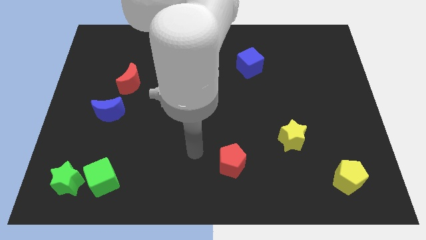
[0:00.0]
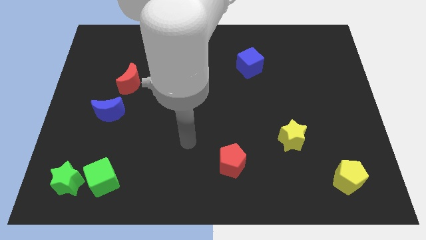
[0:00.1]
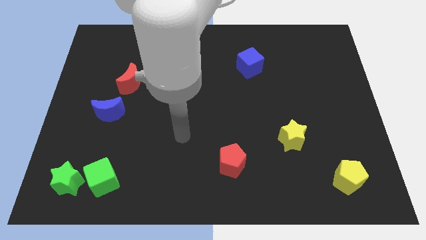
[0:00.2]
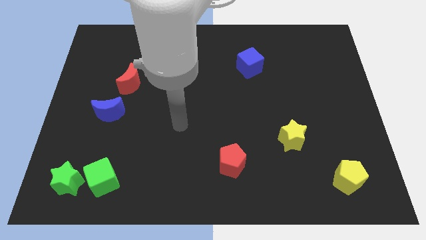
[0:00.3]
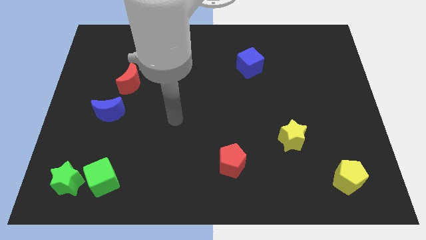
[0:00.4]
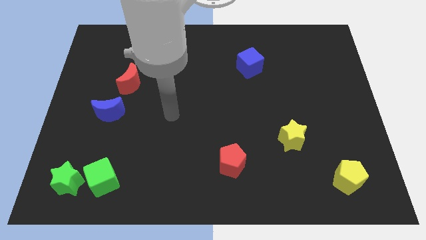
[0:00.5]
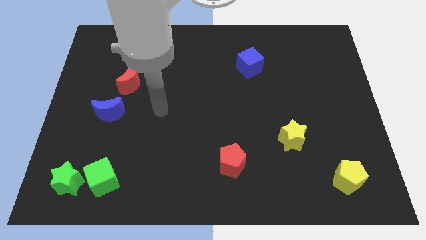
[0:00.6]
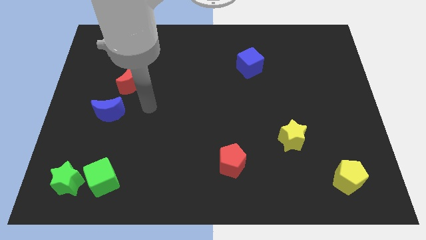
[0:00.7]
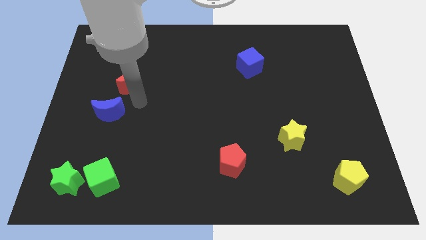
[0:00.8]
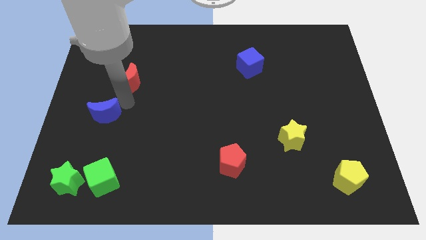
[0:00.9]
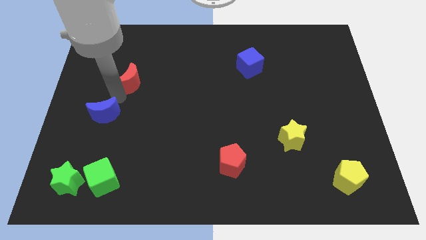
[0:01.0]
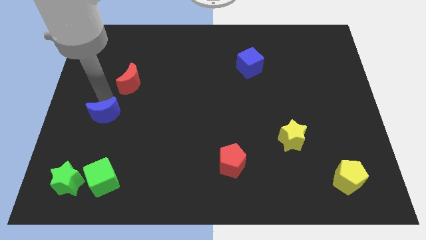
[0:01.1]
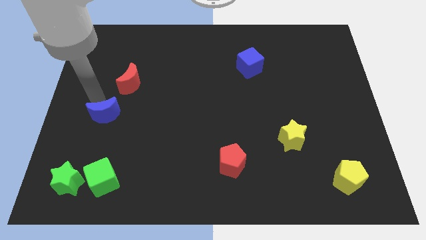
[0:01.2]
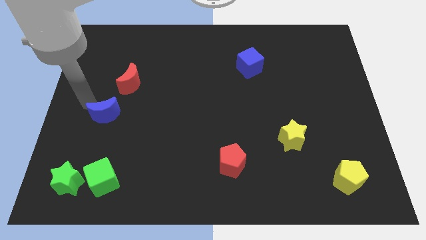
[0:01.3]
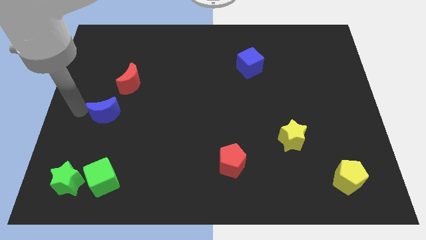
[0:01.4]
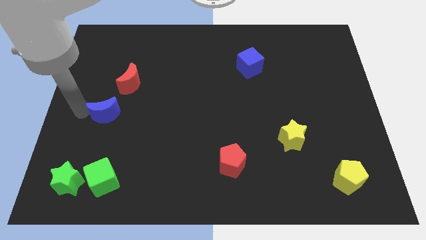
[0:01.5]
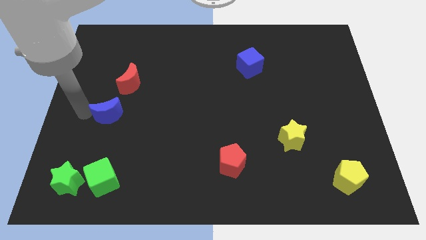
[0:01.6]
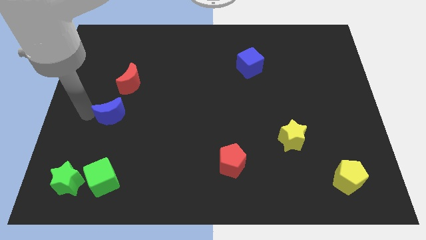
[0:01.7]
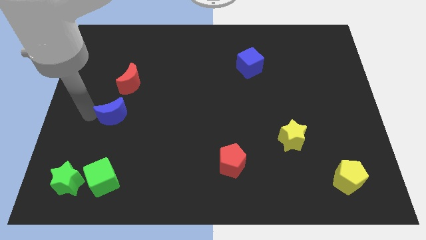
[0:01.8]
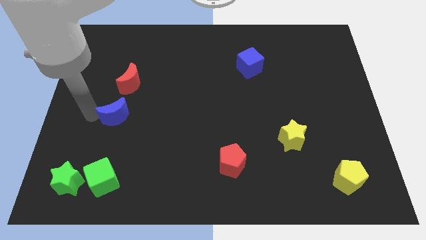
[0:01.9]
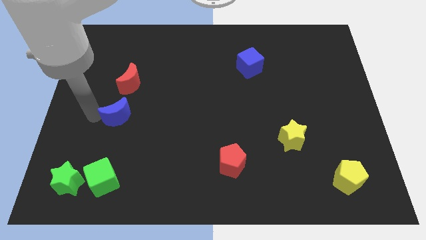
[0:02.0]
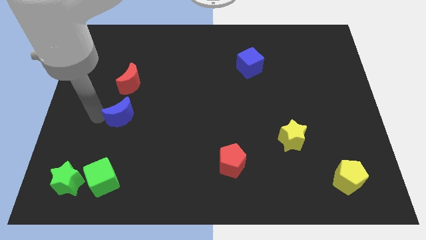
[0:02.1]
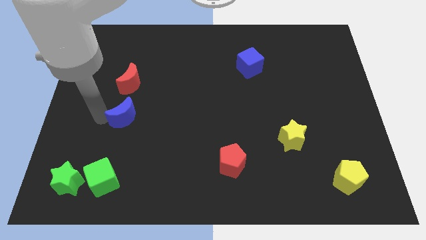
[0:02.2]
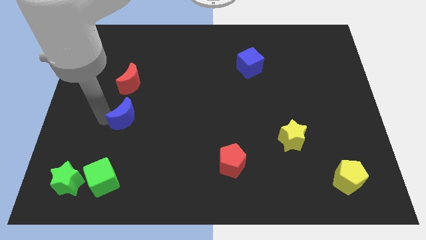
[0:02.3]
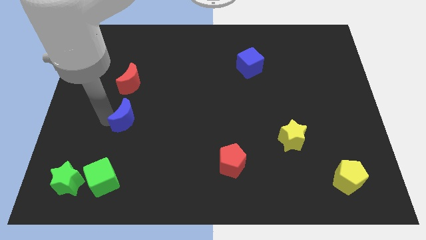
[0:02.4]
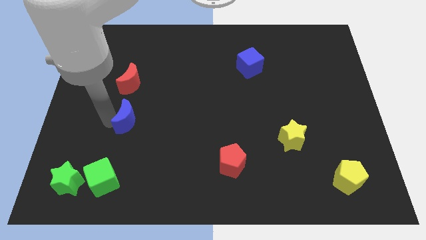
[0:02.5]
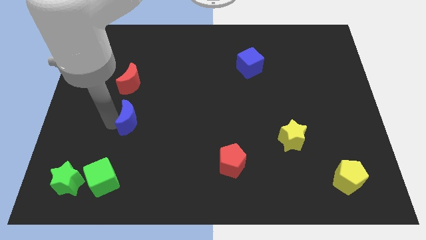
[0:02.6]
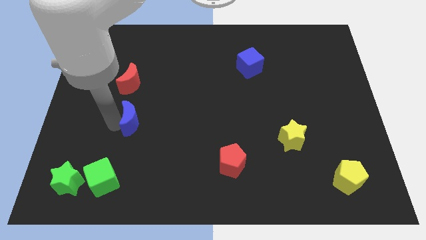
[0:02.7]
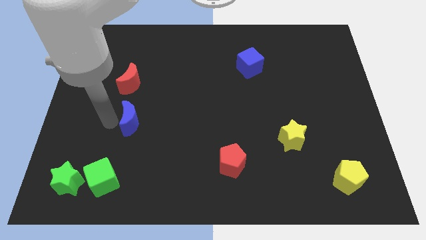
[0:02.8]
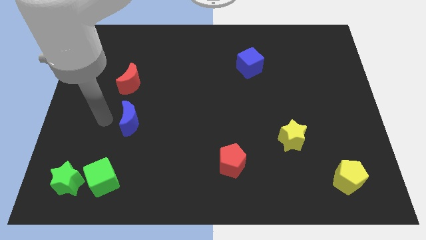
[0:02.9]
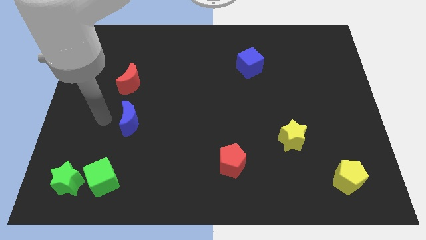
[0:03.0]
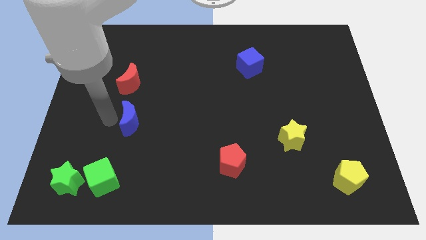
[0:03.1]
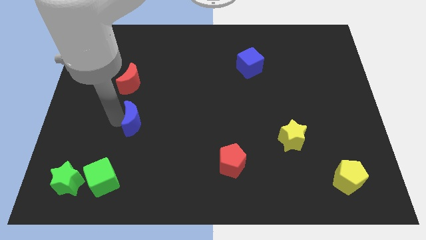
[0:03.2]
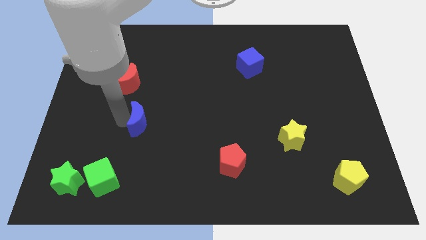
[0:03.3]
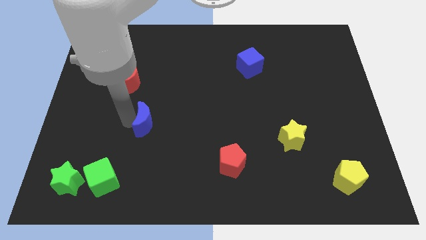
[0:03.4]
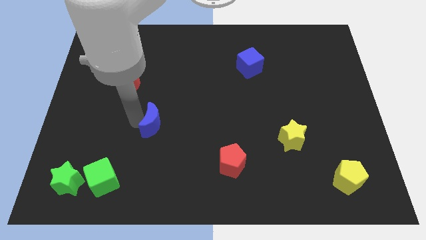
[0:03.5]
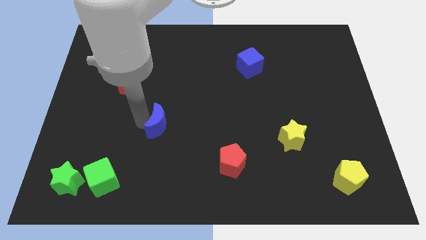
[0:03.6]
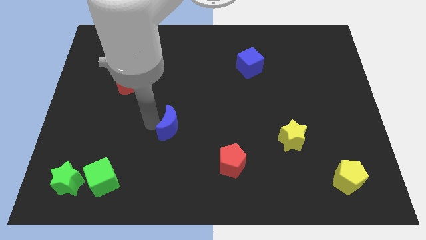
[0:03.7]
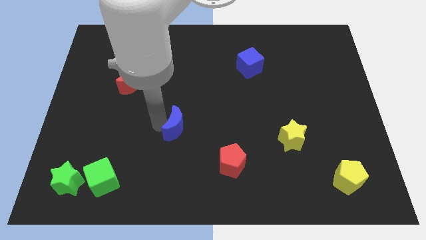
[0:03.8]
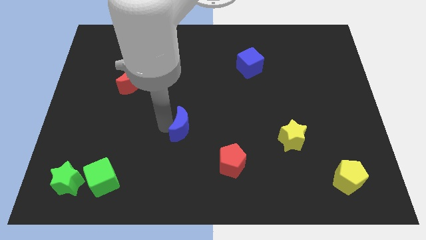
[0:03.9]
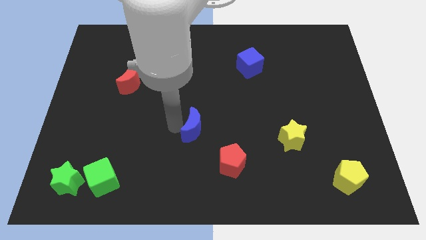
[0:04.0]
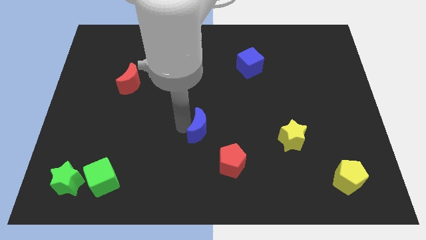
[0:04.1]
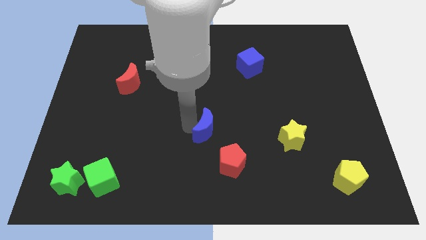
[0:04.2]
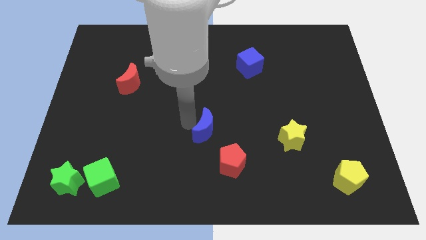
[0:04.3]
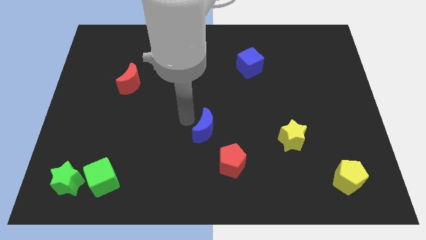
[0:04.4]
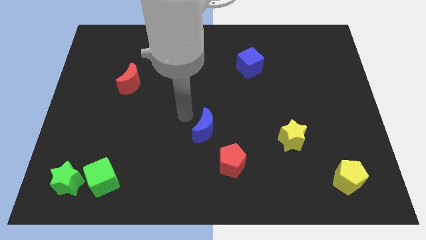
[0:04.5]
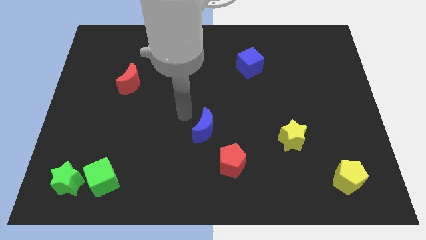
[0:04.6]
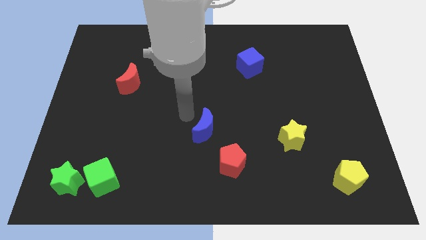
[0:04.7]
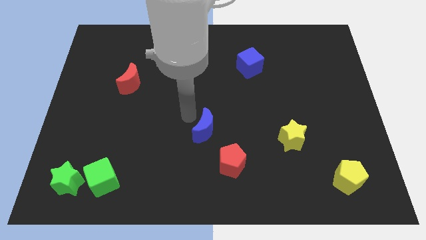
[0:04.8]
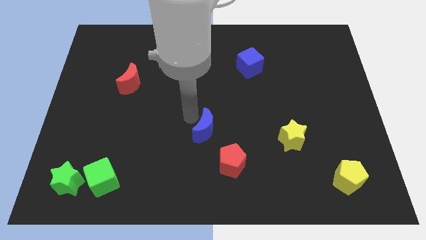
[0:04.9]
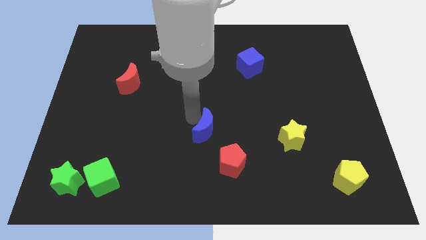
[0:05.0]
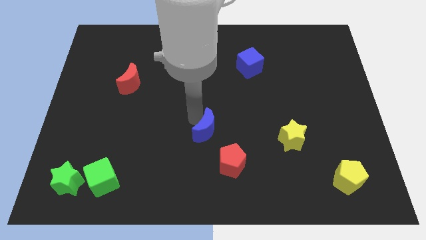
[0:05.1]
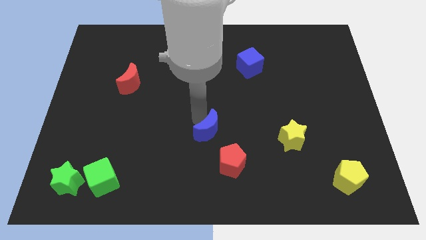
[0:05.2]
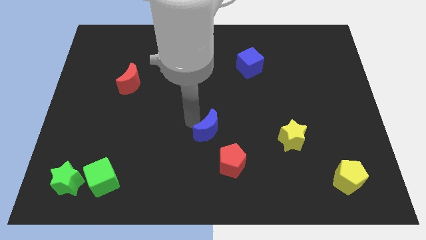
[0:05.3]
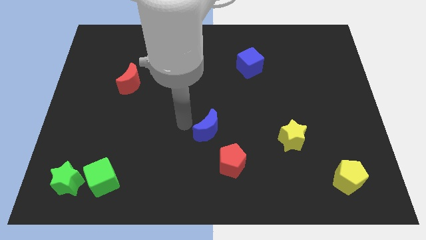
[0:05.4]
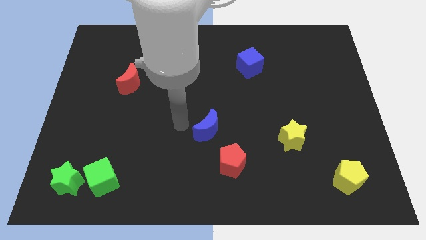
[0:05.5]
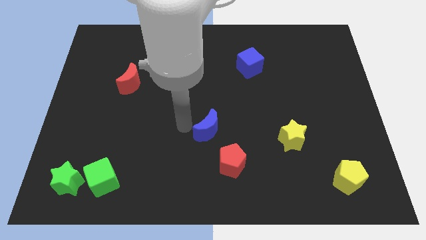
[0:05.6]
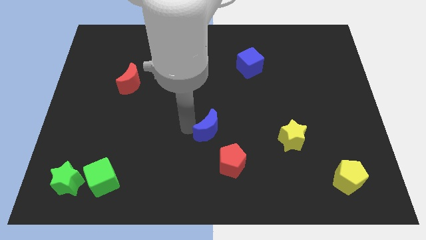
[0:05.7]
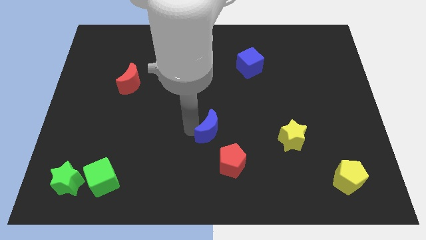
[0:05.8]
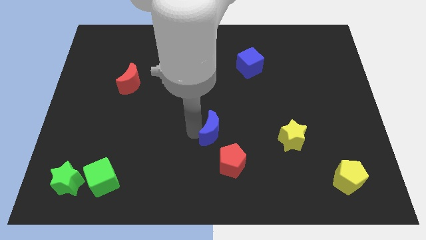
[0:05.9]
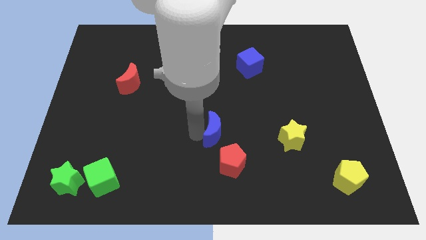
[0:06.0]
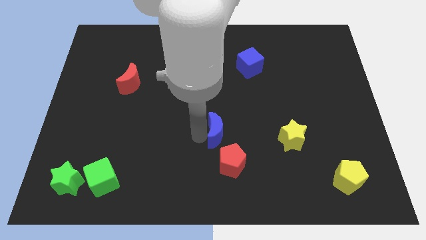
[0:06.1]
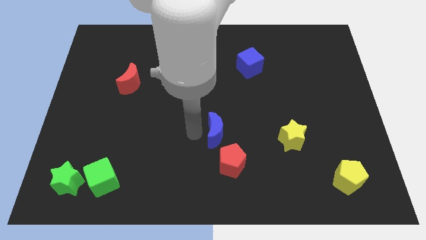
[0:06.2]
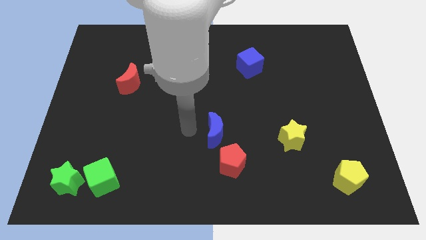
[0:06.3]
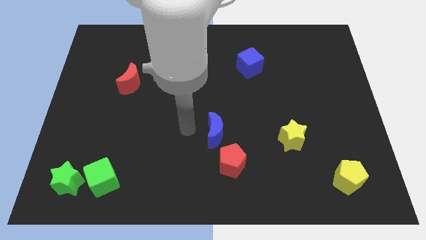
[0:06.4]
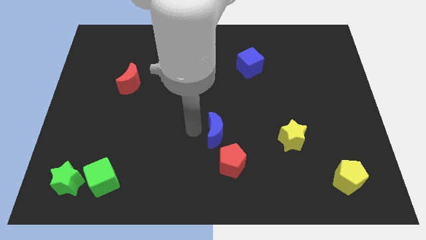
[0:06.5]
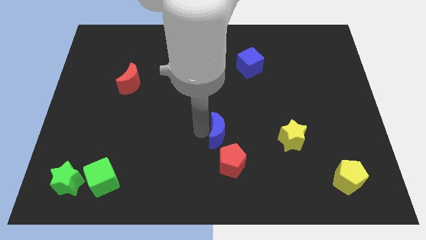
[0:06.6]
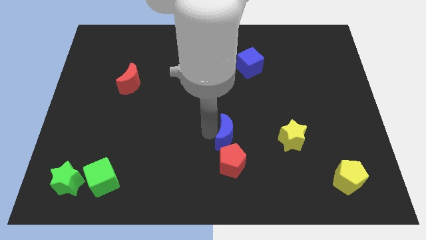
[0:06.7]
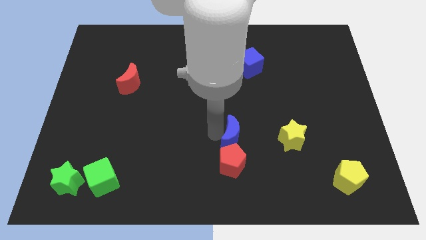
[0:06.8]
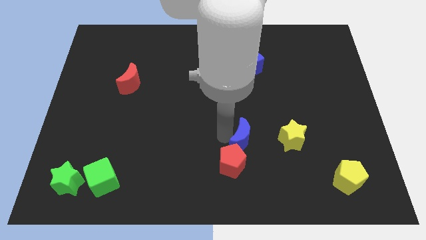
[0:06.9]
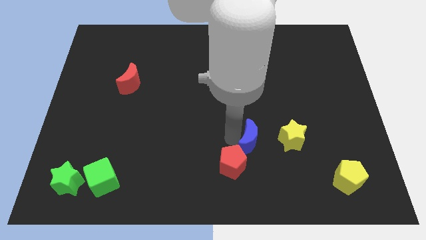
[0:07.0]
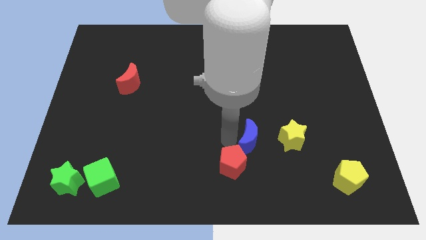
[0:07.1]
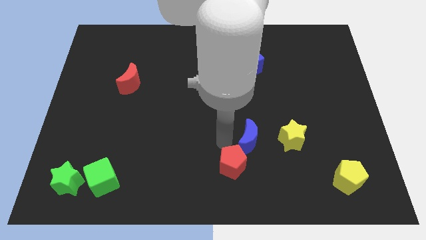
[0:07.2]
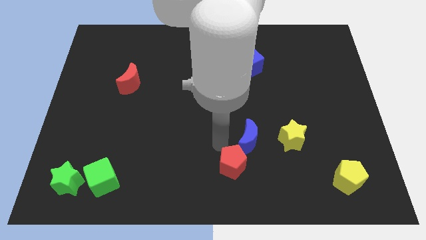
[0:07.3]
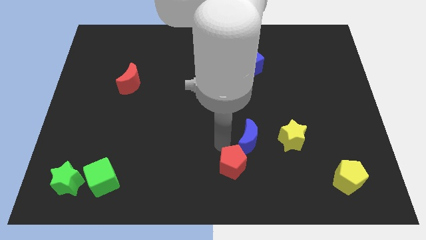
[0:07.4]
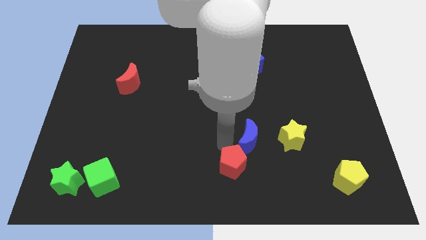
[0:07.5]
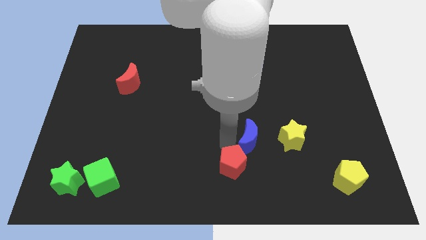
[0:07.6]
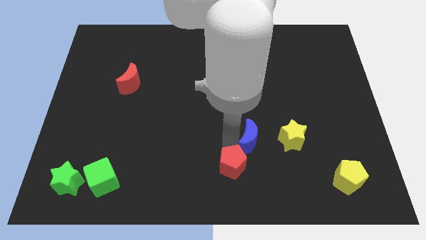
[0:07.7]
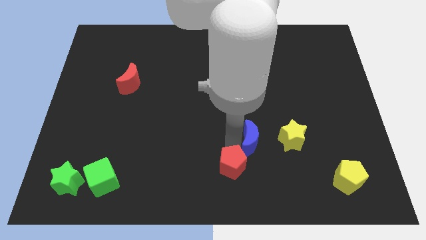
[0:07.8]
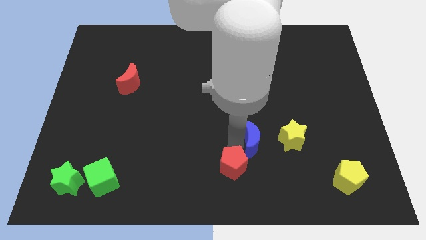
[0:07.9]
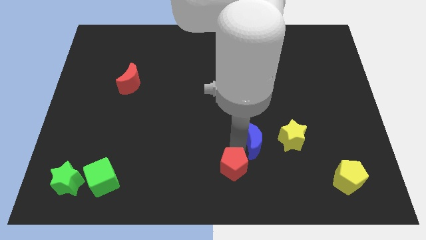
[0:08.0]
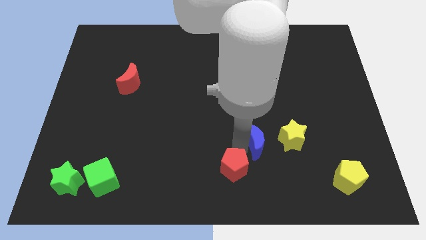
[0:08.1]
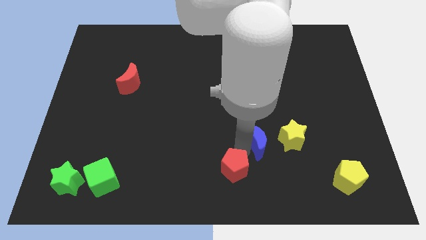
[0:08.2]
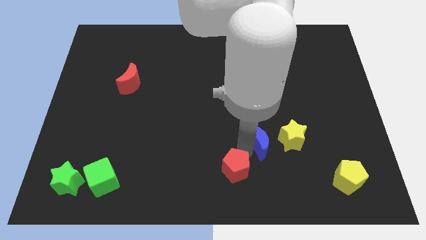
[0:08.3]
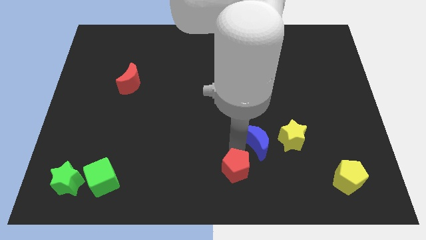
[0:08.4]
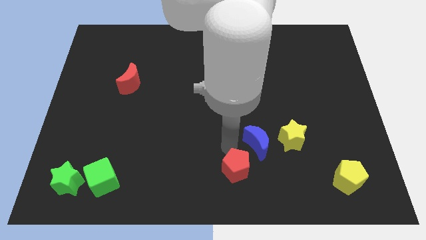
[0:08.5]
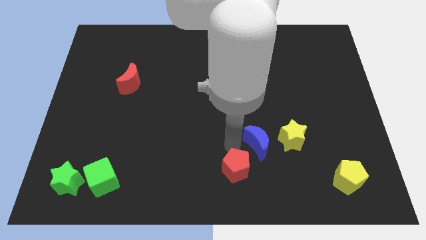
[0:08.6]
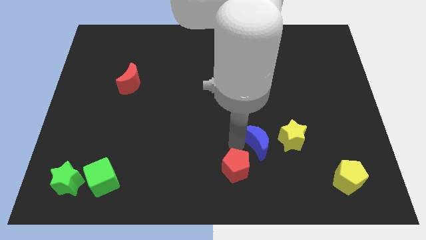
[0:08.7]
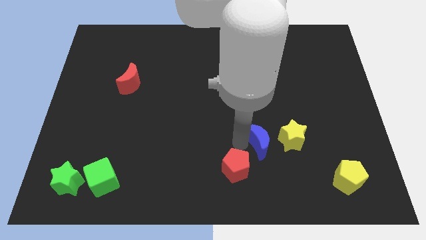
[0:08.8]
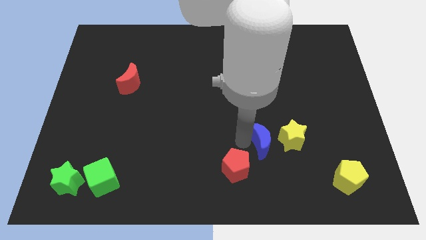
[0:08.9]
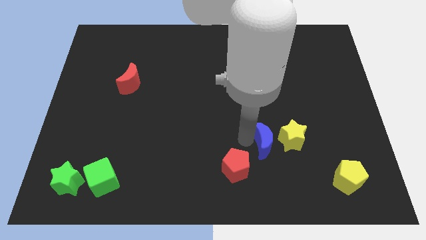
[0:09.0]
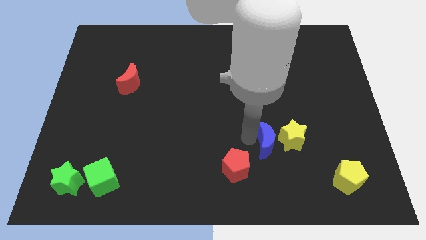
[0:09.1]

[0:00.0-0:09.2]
move the blue moon towards the yellow star
